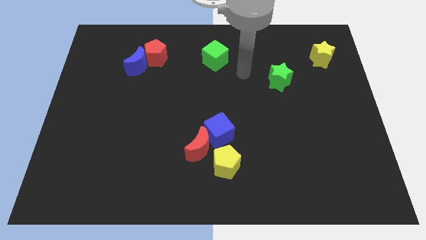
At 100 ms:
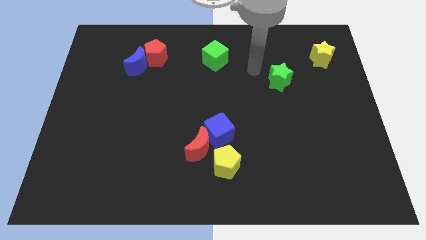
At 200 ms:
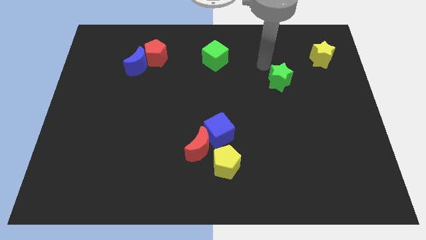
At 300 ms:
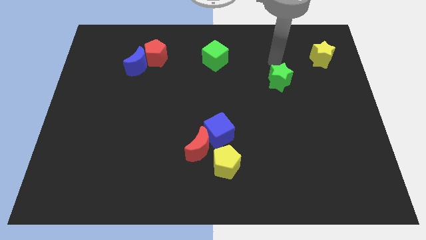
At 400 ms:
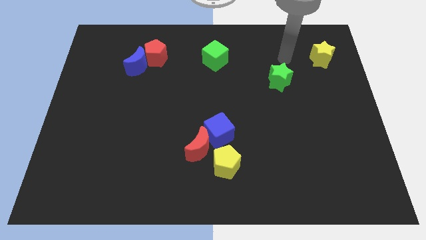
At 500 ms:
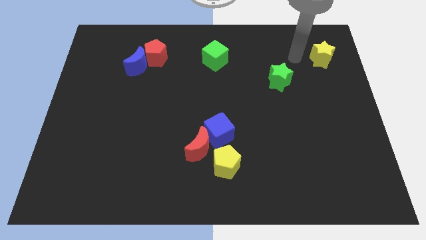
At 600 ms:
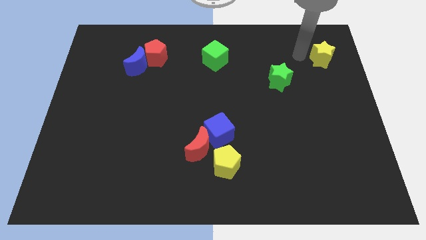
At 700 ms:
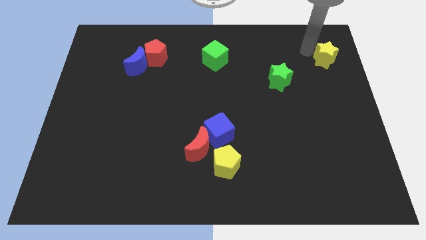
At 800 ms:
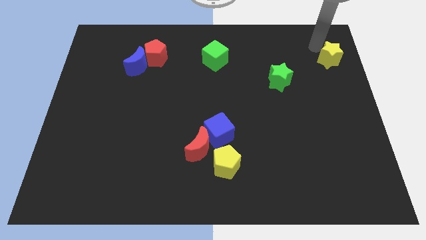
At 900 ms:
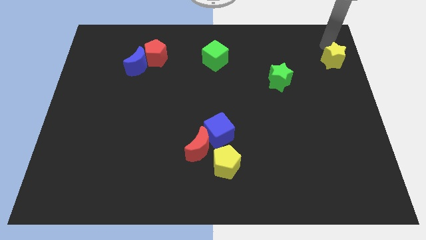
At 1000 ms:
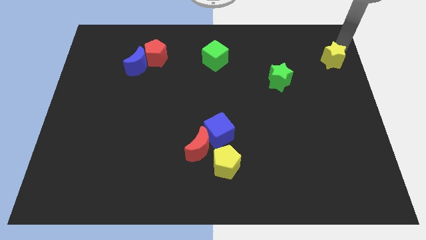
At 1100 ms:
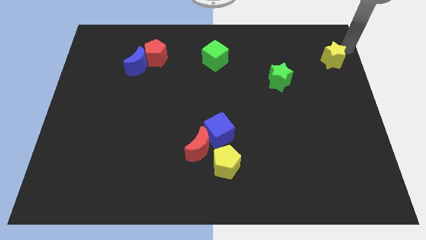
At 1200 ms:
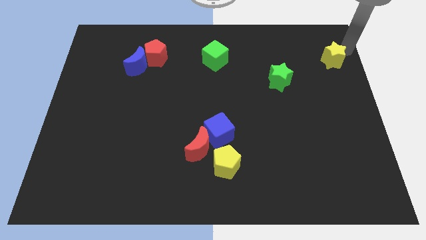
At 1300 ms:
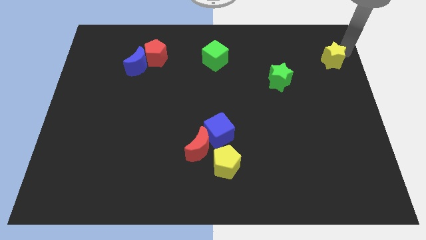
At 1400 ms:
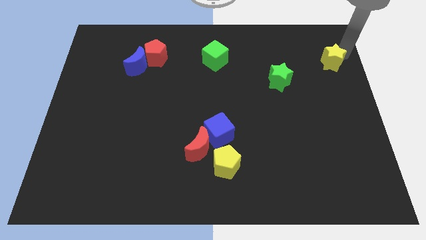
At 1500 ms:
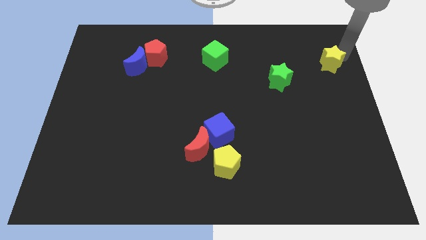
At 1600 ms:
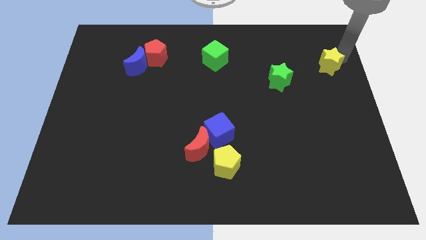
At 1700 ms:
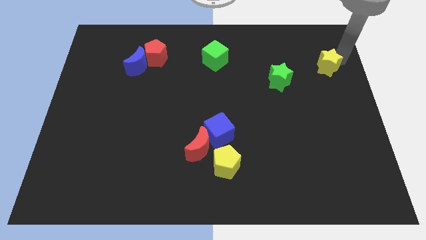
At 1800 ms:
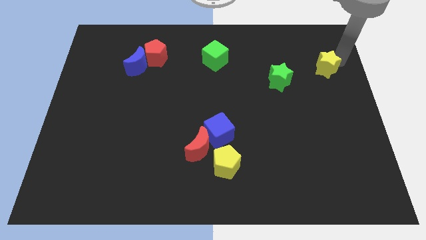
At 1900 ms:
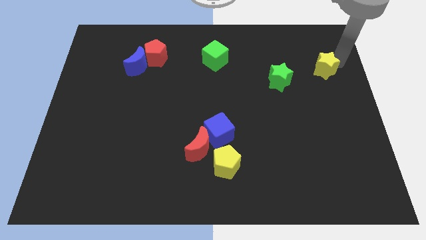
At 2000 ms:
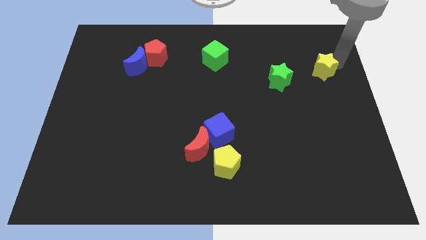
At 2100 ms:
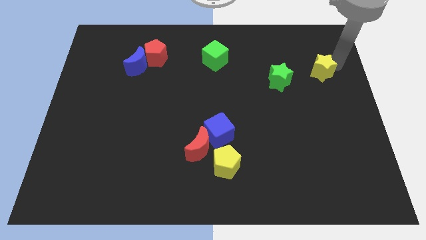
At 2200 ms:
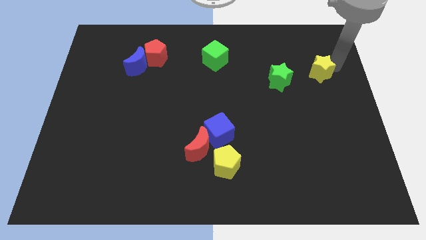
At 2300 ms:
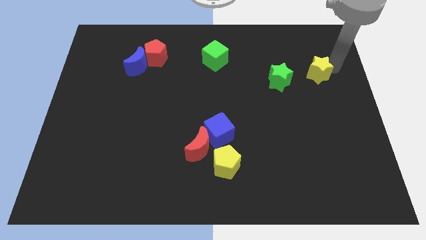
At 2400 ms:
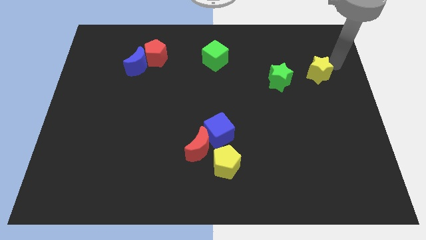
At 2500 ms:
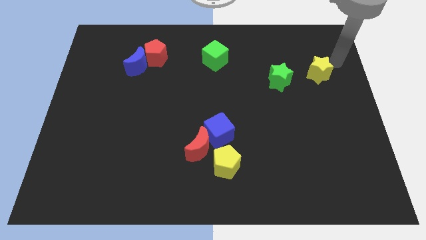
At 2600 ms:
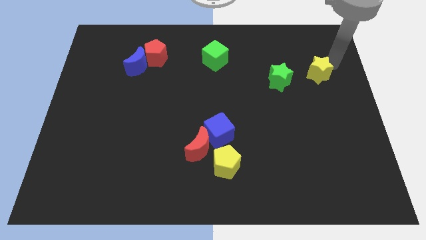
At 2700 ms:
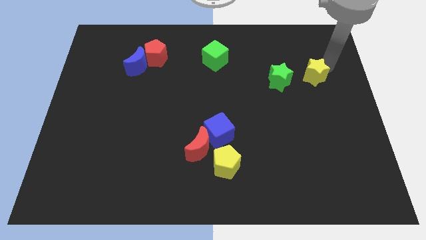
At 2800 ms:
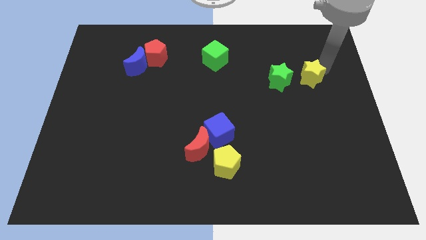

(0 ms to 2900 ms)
slightly slide the yellow star diagonally downwards and to the left

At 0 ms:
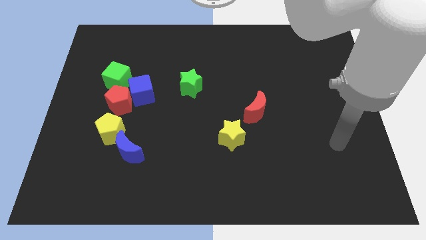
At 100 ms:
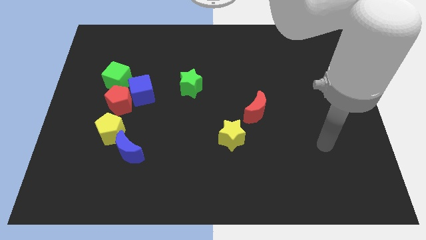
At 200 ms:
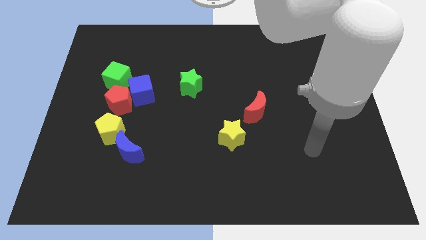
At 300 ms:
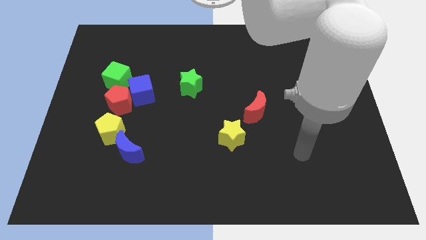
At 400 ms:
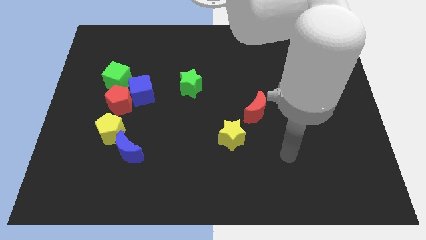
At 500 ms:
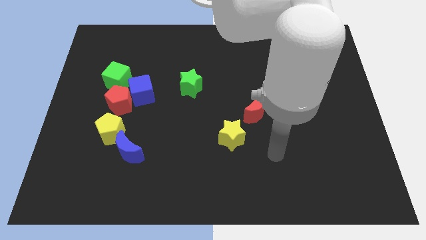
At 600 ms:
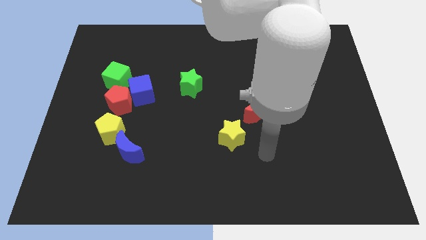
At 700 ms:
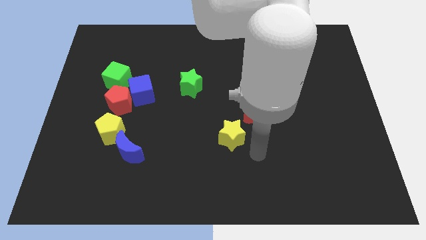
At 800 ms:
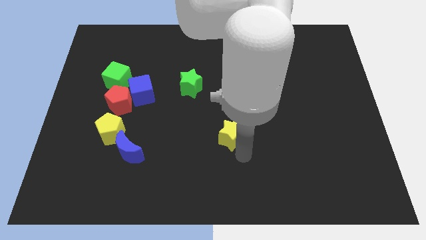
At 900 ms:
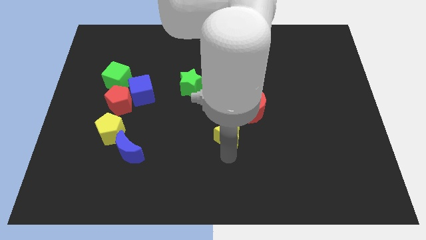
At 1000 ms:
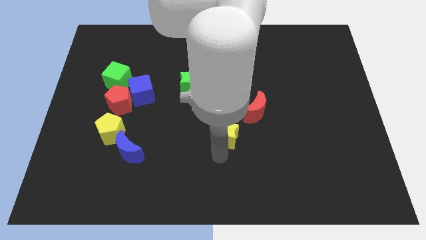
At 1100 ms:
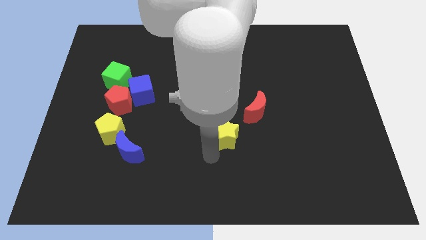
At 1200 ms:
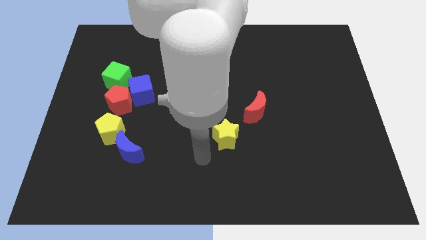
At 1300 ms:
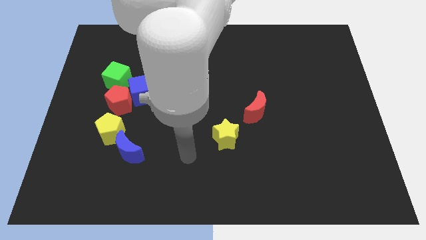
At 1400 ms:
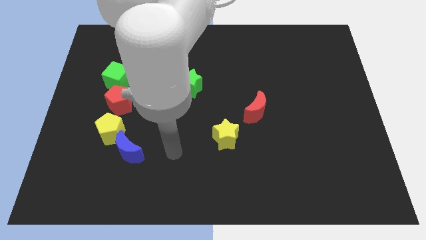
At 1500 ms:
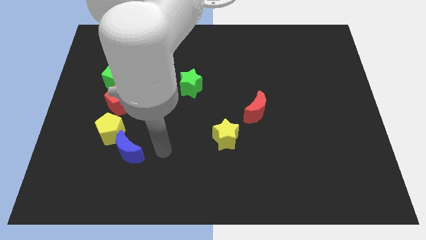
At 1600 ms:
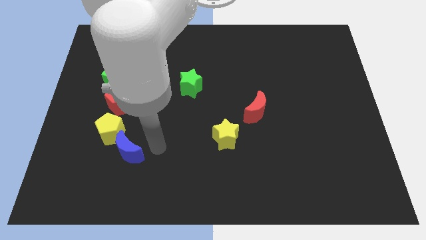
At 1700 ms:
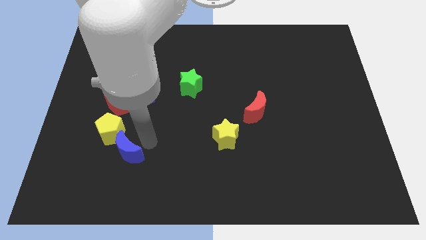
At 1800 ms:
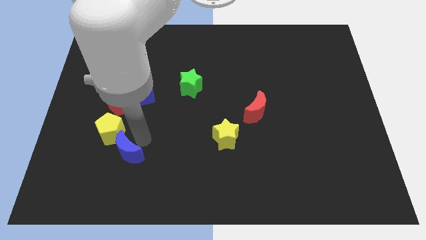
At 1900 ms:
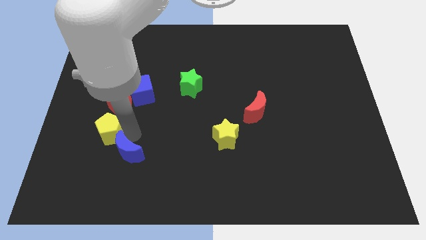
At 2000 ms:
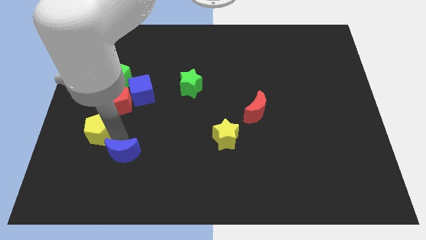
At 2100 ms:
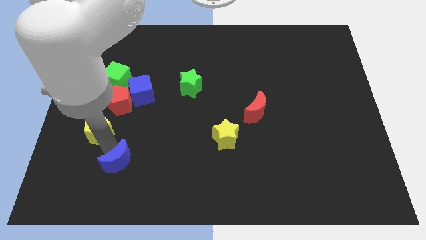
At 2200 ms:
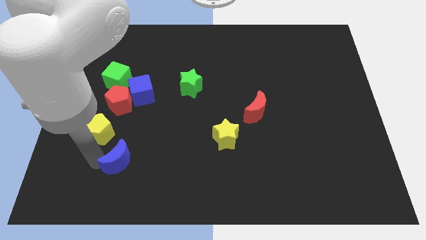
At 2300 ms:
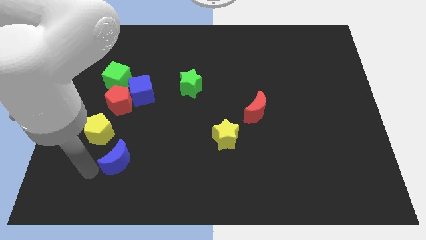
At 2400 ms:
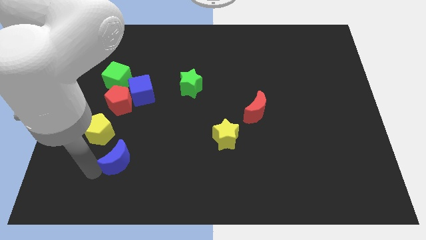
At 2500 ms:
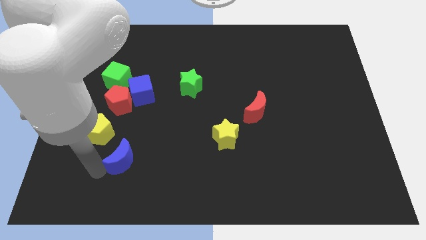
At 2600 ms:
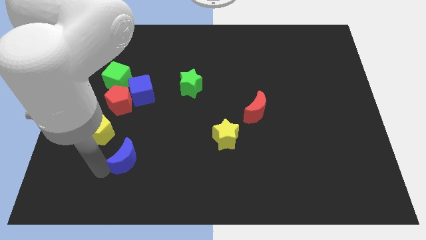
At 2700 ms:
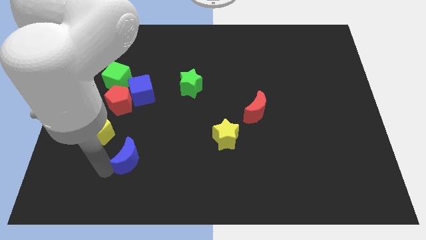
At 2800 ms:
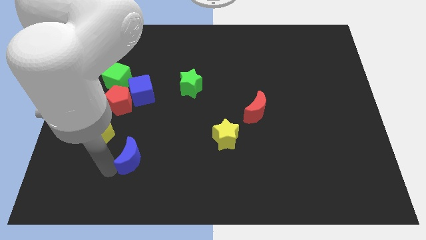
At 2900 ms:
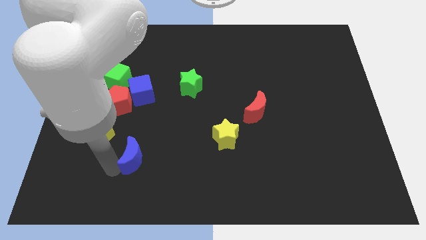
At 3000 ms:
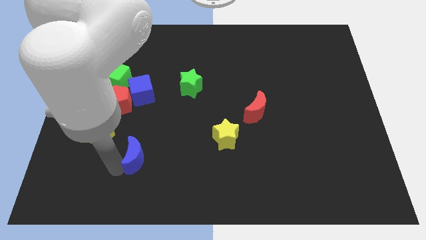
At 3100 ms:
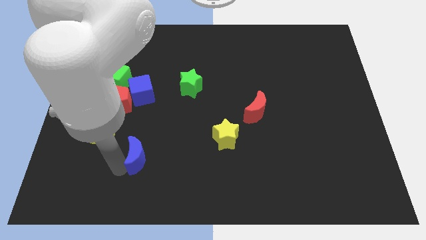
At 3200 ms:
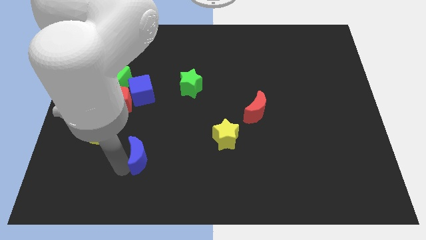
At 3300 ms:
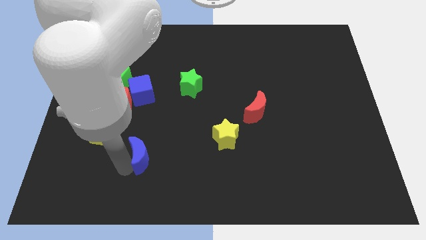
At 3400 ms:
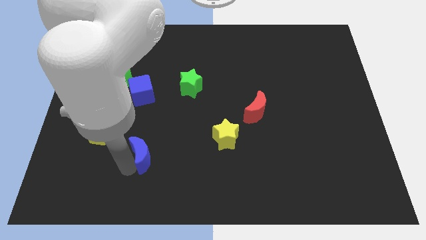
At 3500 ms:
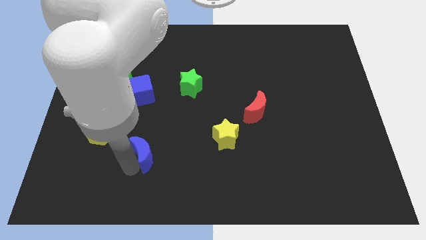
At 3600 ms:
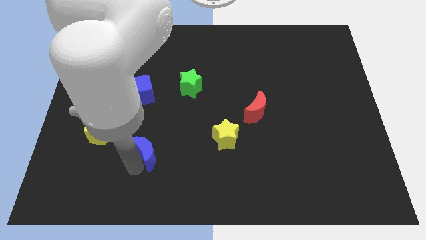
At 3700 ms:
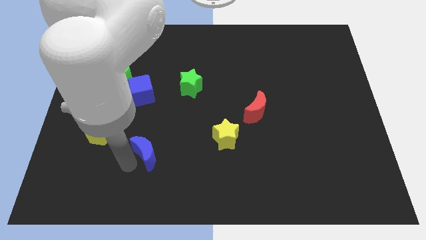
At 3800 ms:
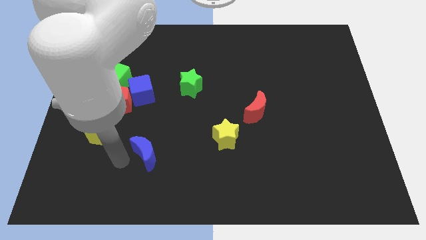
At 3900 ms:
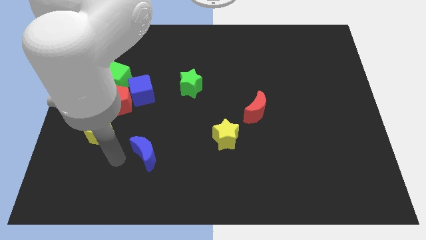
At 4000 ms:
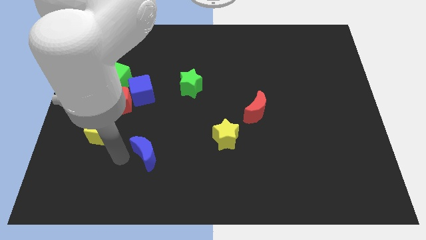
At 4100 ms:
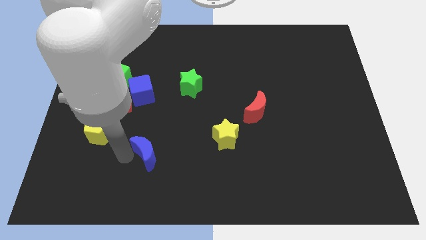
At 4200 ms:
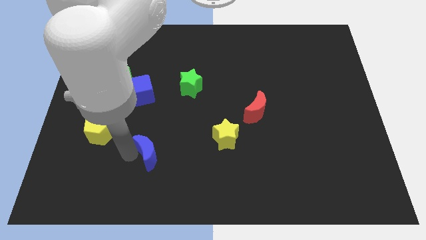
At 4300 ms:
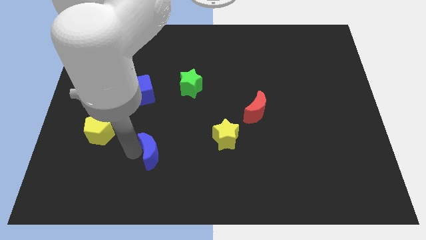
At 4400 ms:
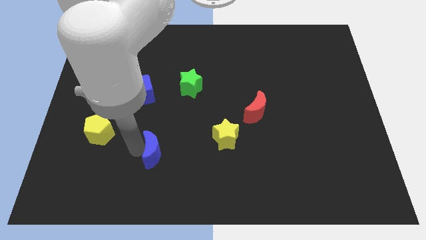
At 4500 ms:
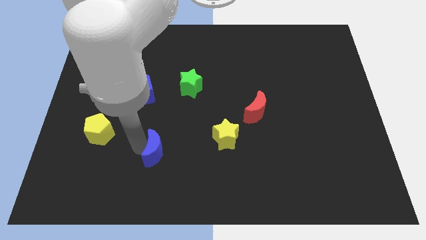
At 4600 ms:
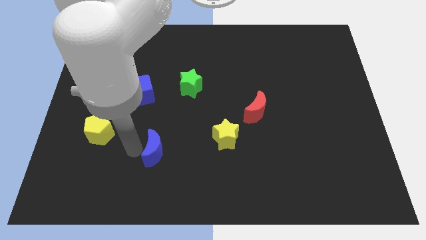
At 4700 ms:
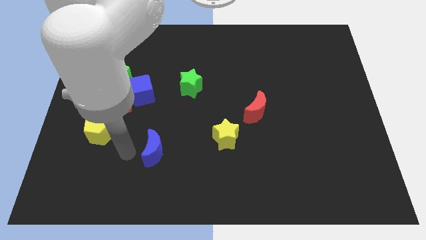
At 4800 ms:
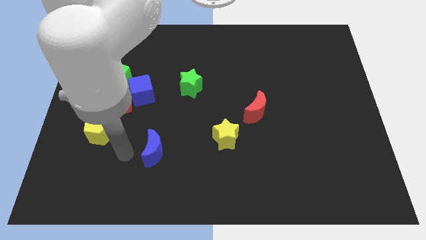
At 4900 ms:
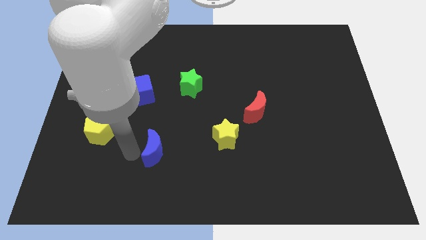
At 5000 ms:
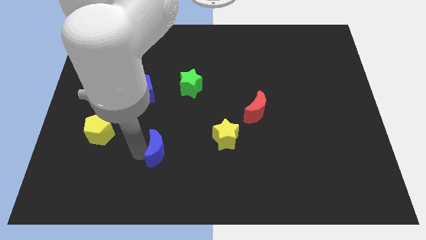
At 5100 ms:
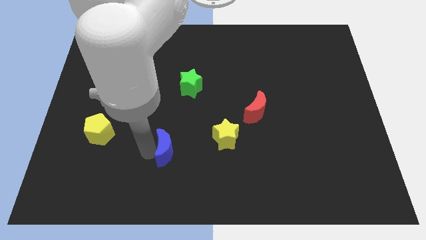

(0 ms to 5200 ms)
push the blue moon to the right slightly
